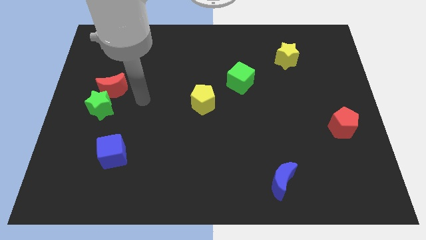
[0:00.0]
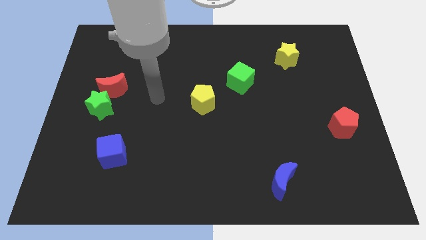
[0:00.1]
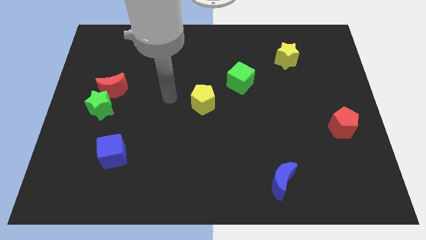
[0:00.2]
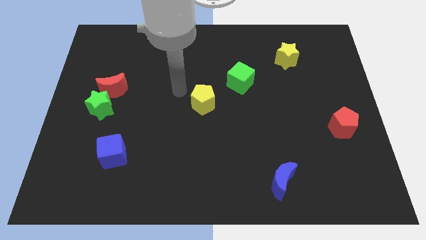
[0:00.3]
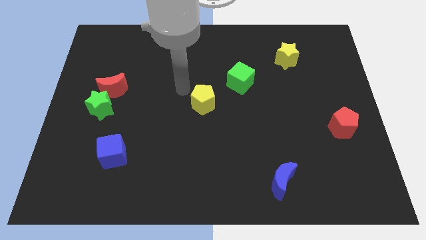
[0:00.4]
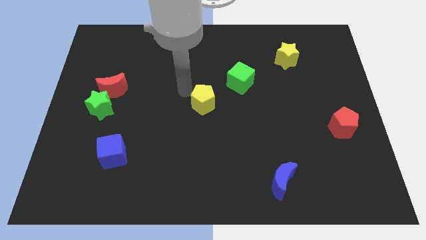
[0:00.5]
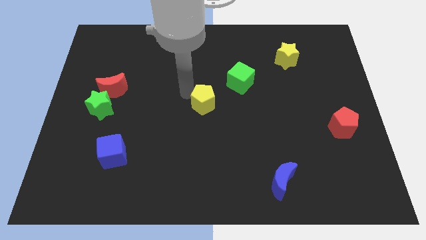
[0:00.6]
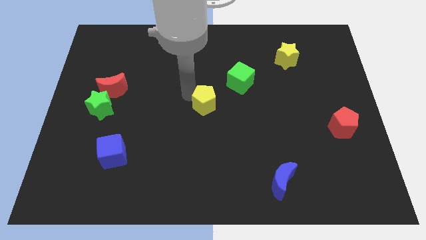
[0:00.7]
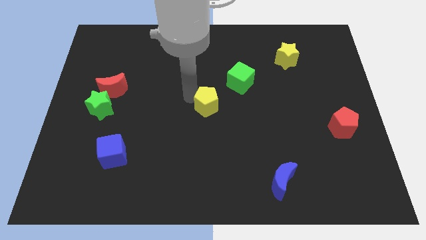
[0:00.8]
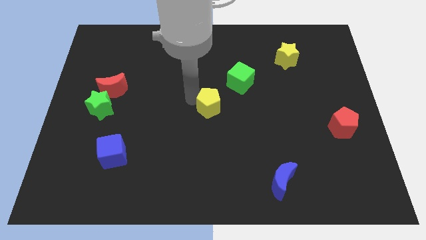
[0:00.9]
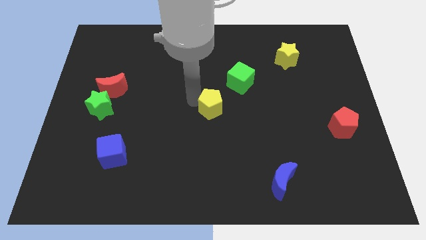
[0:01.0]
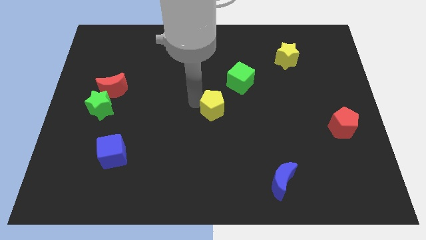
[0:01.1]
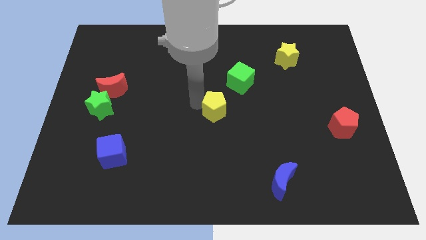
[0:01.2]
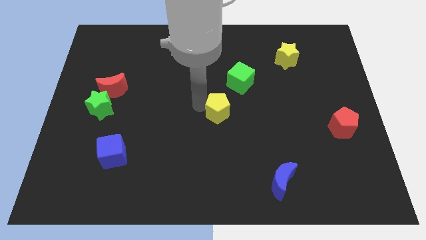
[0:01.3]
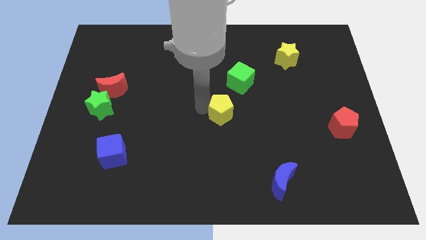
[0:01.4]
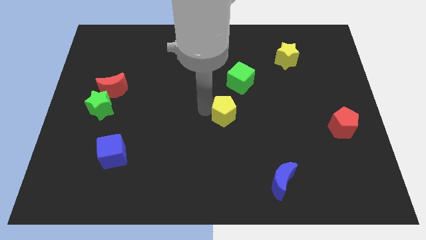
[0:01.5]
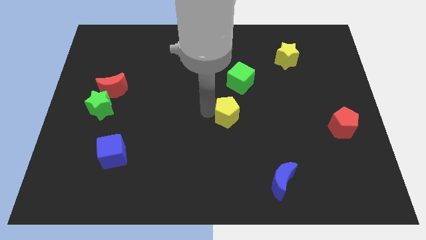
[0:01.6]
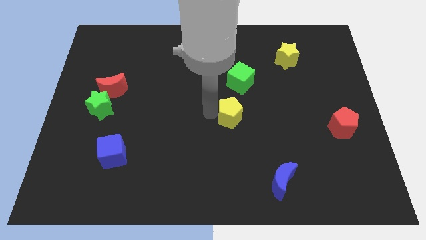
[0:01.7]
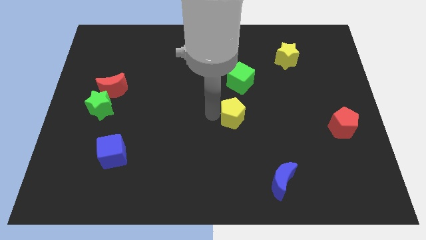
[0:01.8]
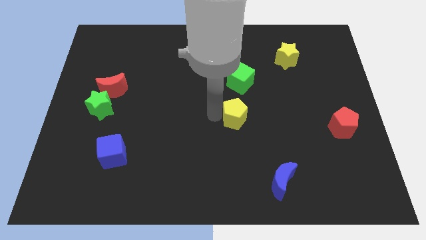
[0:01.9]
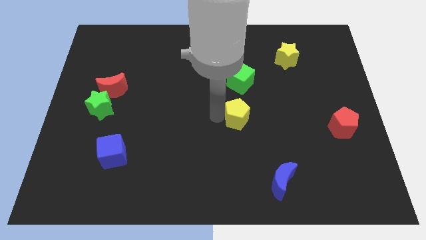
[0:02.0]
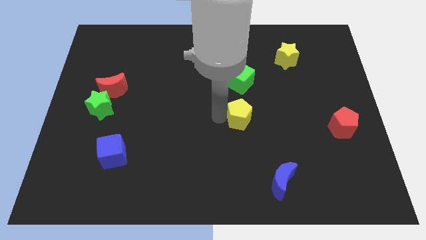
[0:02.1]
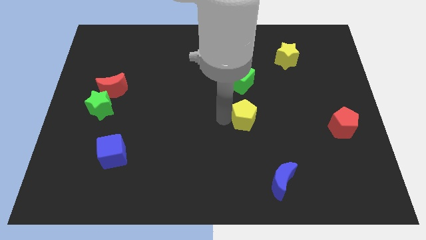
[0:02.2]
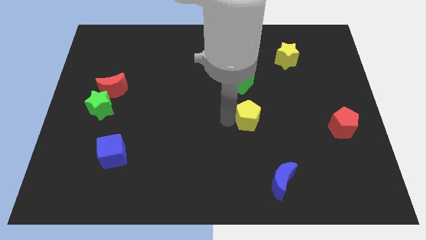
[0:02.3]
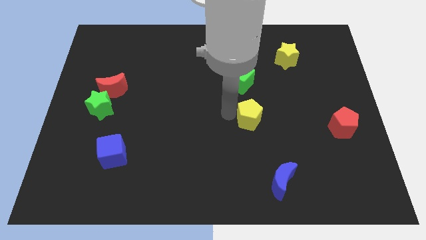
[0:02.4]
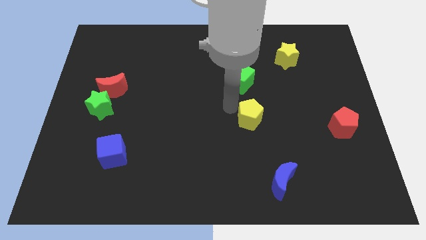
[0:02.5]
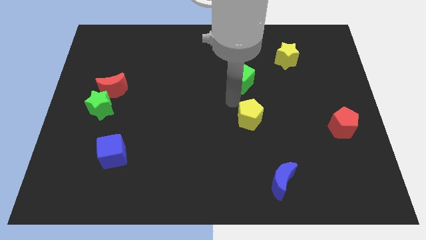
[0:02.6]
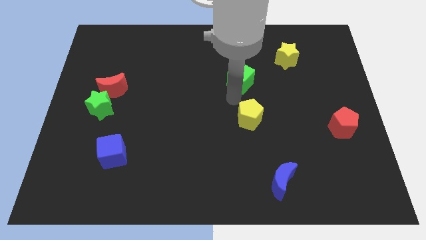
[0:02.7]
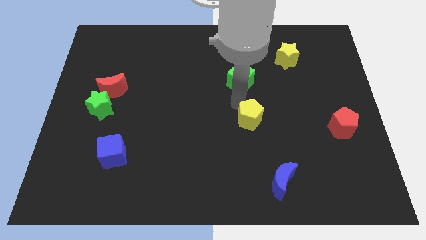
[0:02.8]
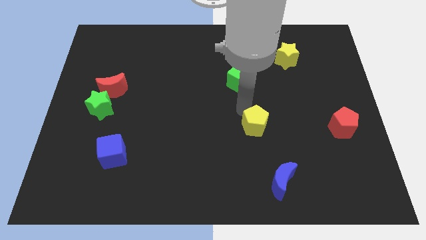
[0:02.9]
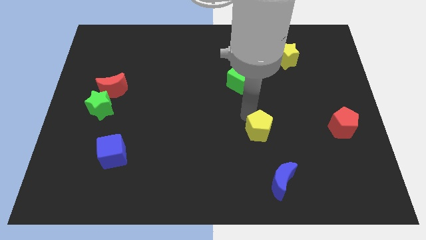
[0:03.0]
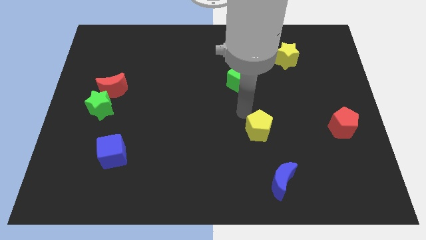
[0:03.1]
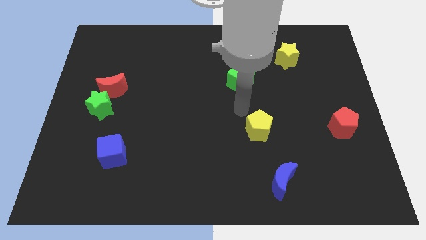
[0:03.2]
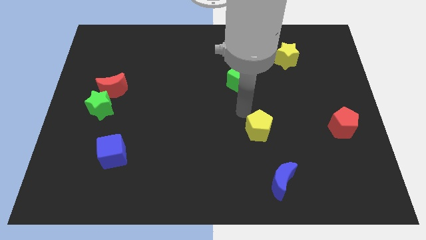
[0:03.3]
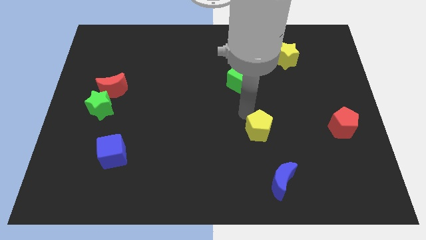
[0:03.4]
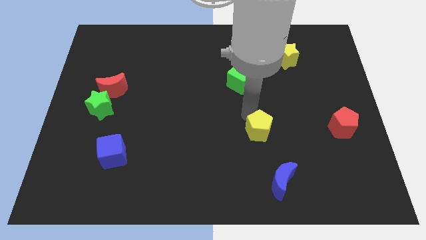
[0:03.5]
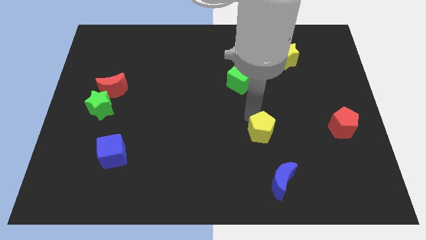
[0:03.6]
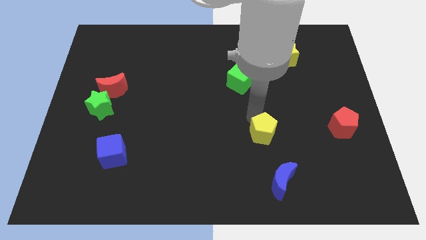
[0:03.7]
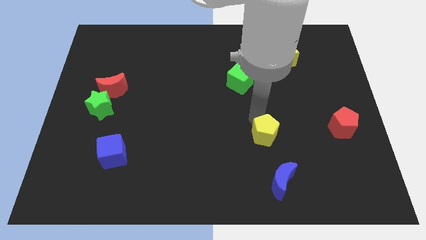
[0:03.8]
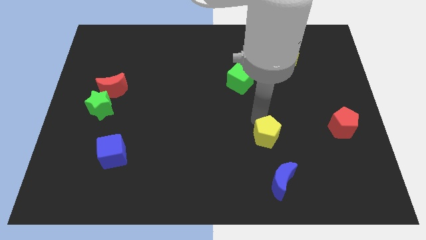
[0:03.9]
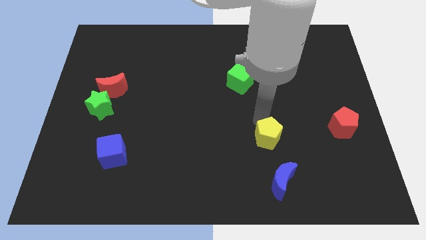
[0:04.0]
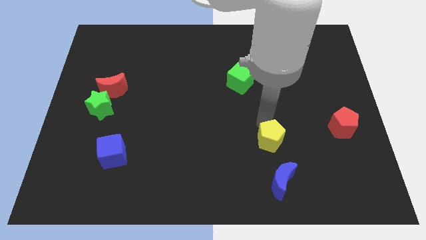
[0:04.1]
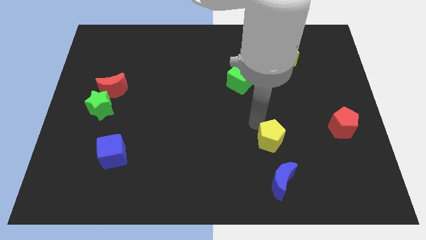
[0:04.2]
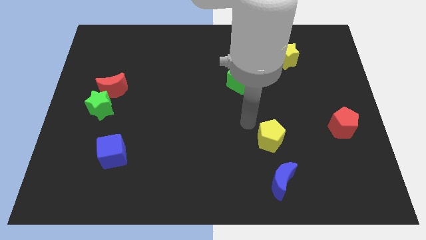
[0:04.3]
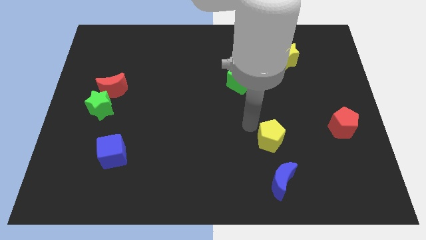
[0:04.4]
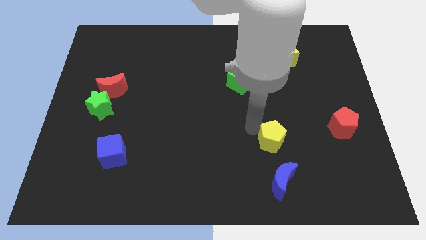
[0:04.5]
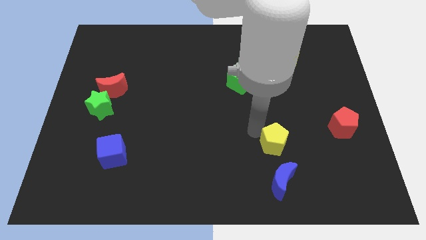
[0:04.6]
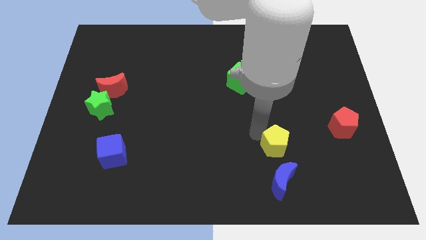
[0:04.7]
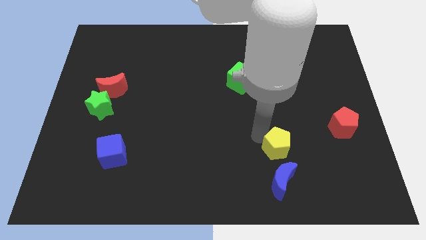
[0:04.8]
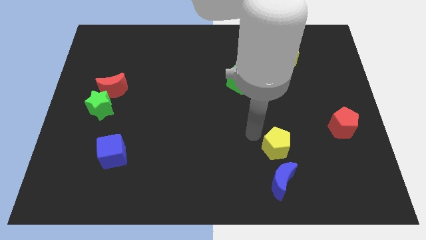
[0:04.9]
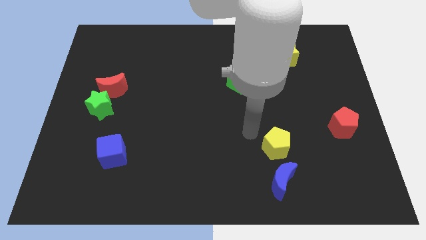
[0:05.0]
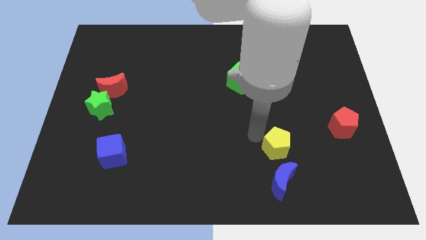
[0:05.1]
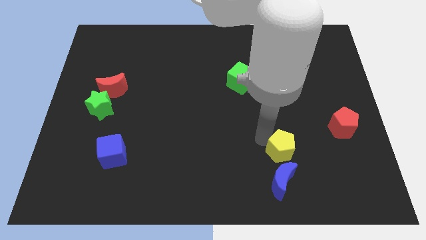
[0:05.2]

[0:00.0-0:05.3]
put the yellow pentagon diagonally up and to the right of the blue moon

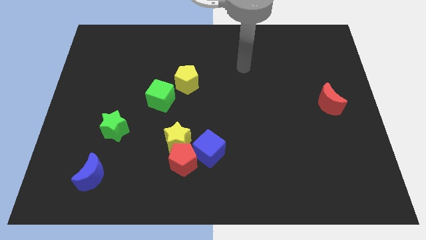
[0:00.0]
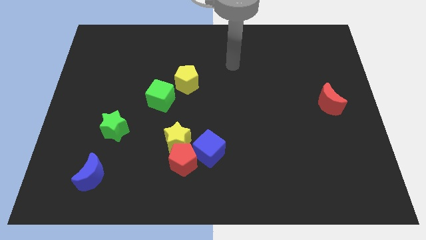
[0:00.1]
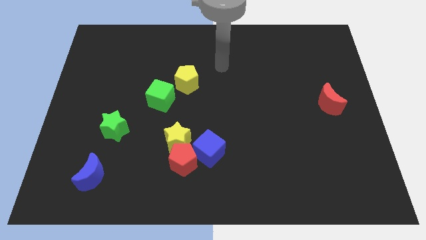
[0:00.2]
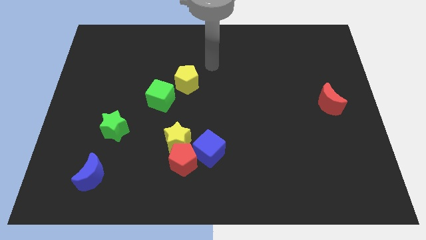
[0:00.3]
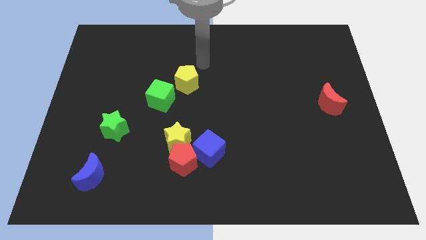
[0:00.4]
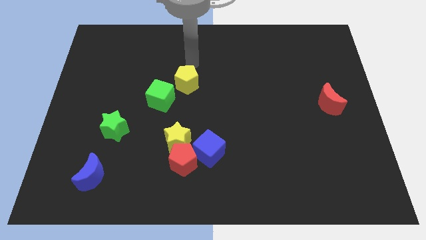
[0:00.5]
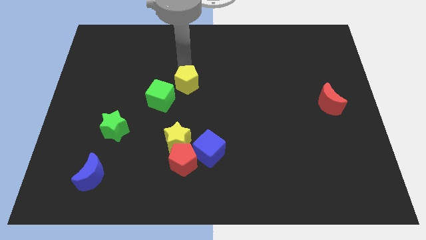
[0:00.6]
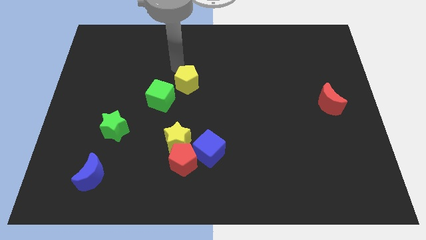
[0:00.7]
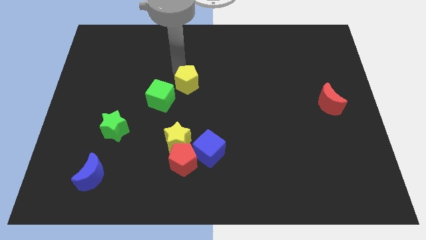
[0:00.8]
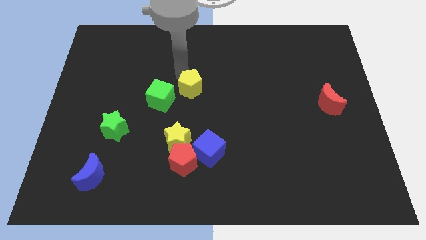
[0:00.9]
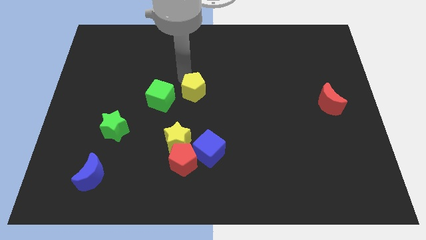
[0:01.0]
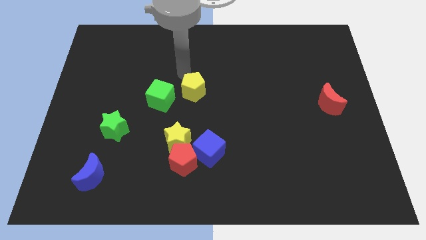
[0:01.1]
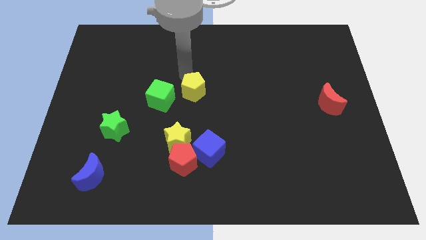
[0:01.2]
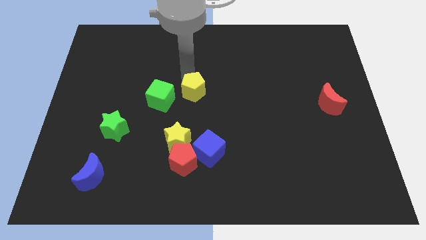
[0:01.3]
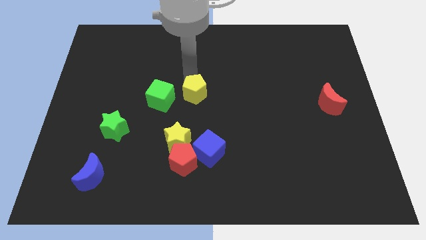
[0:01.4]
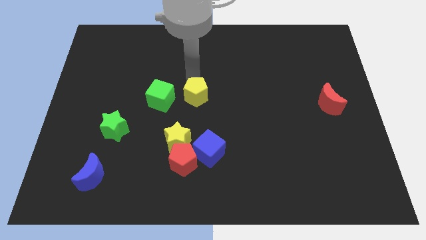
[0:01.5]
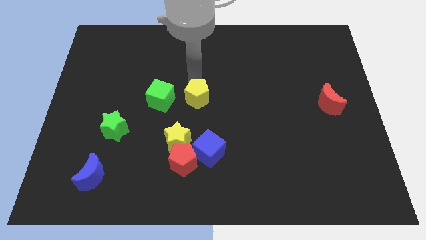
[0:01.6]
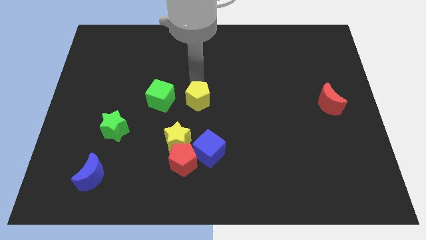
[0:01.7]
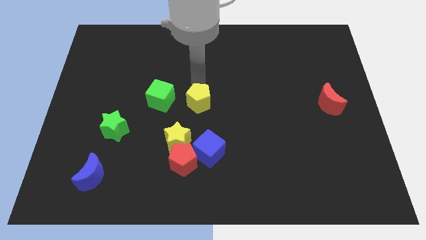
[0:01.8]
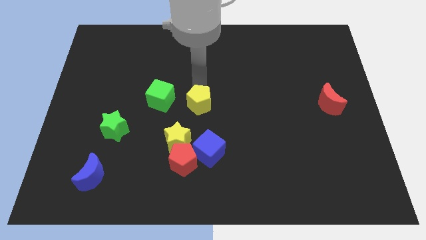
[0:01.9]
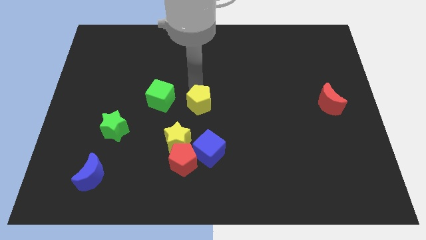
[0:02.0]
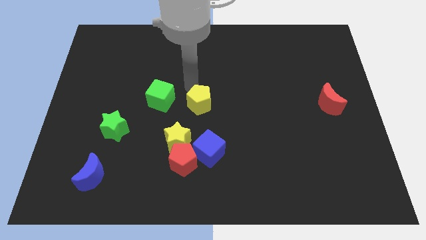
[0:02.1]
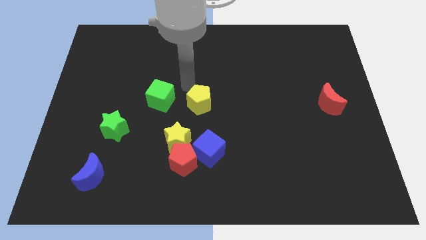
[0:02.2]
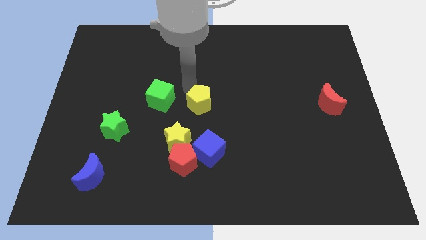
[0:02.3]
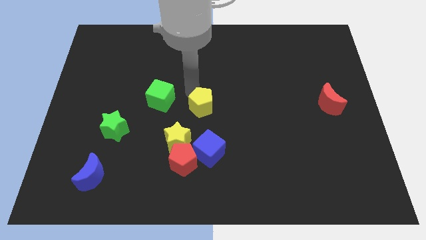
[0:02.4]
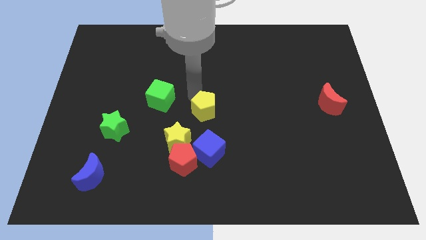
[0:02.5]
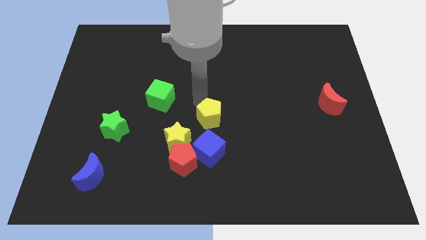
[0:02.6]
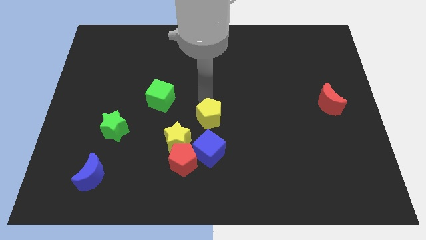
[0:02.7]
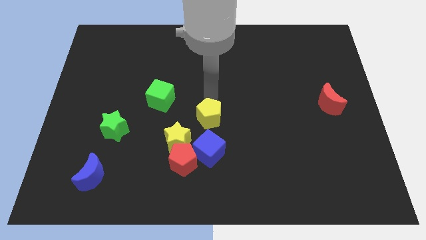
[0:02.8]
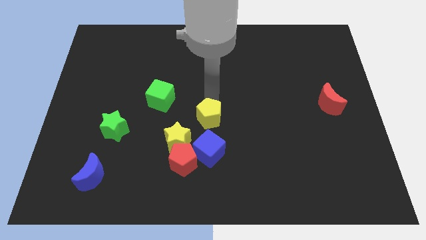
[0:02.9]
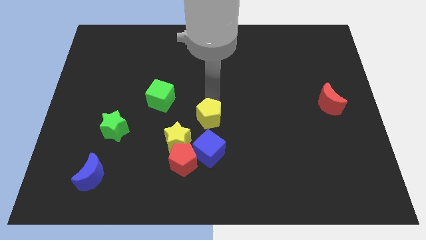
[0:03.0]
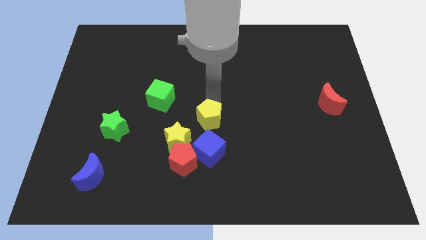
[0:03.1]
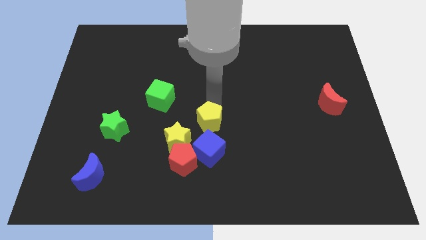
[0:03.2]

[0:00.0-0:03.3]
put the yellow pentagon diagonally up and to the right of the red pentagon
